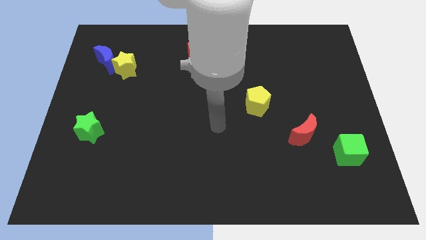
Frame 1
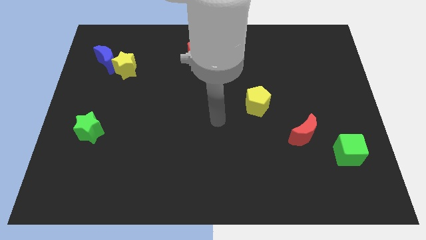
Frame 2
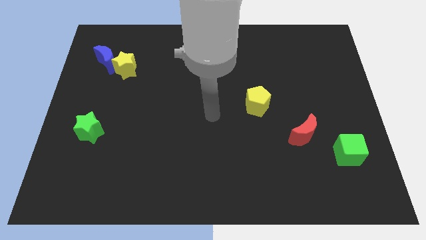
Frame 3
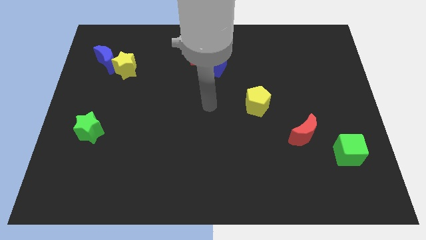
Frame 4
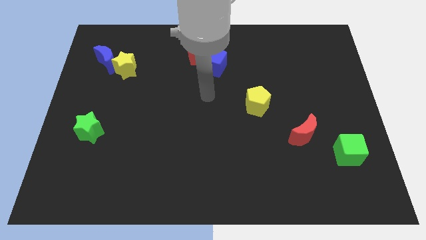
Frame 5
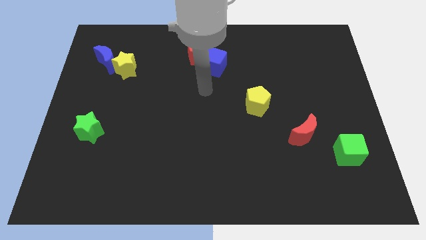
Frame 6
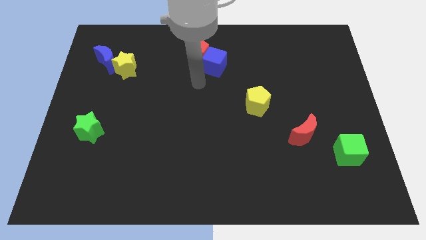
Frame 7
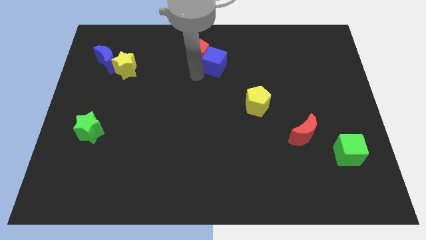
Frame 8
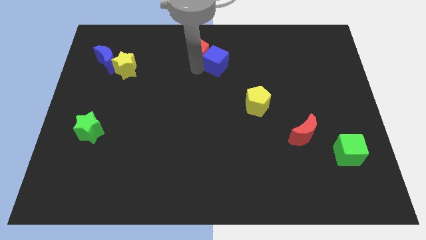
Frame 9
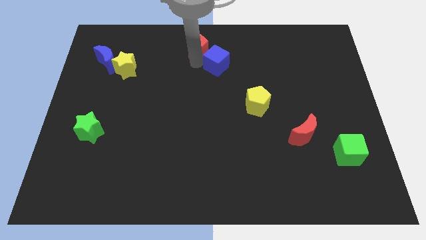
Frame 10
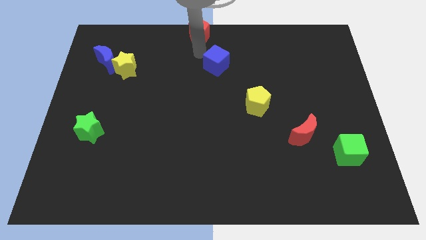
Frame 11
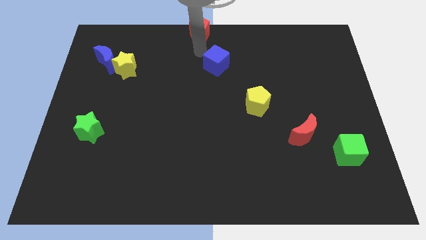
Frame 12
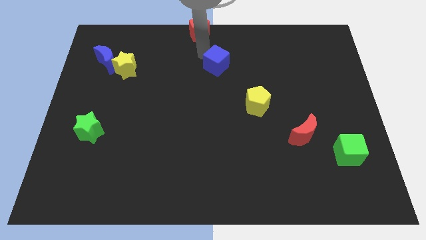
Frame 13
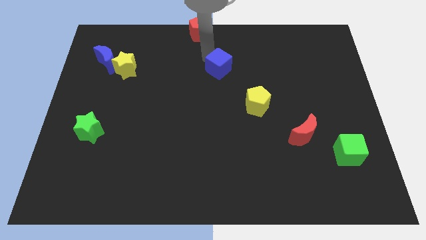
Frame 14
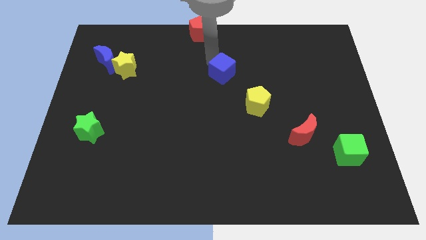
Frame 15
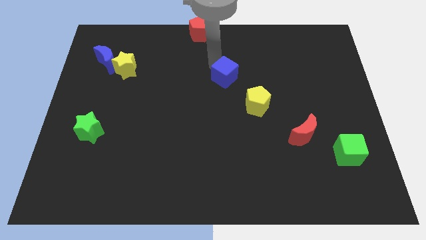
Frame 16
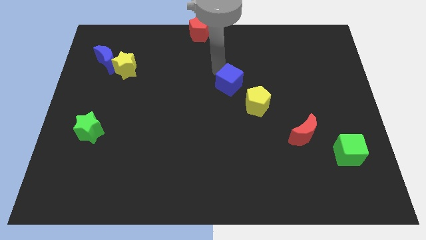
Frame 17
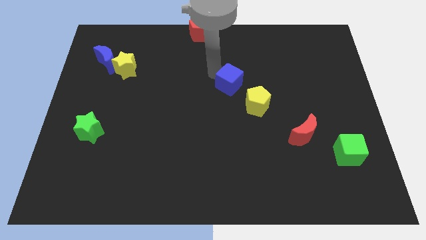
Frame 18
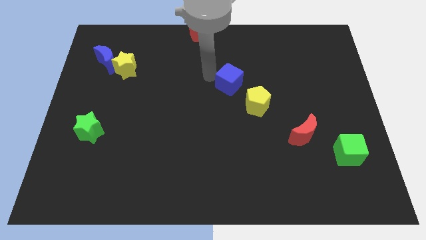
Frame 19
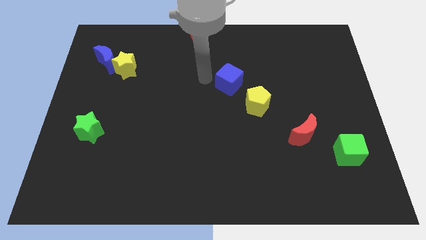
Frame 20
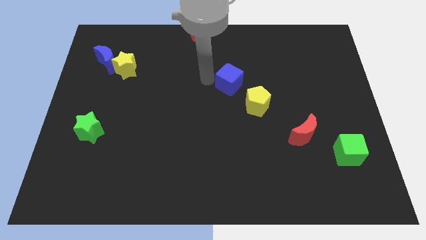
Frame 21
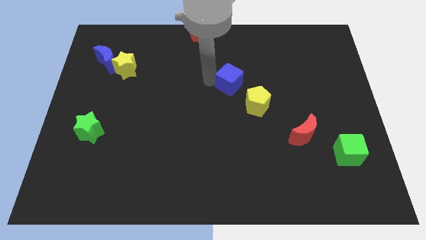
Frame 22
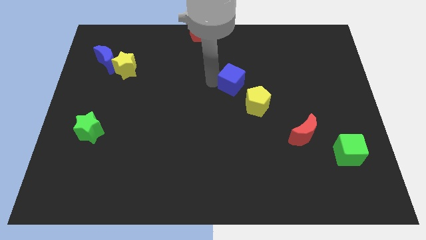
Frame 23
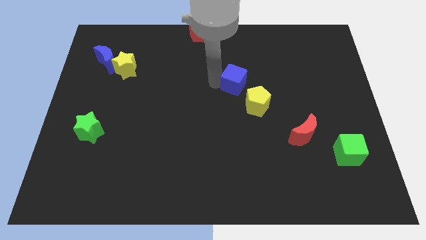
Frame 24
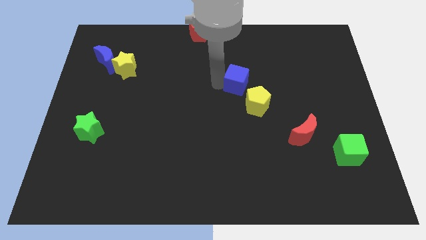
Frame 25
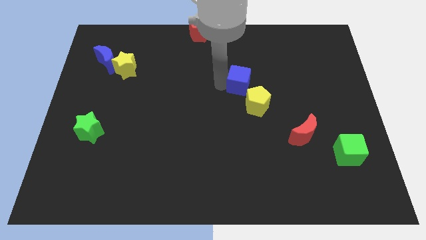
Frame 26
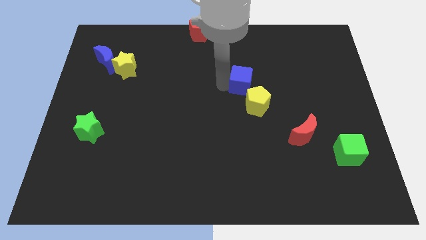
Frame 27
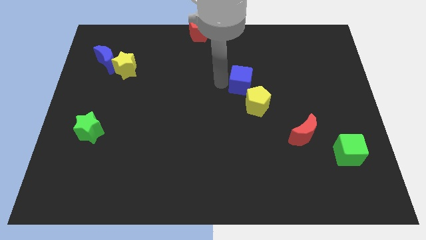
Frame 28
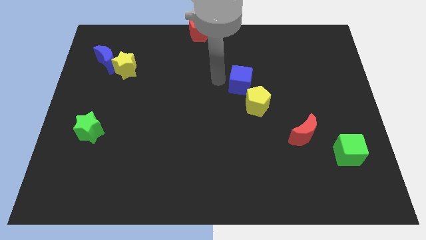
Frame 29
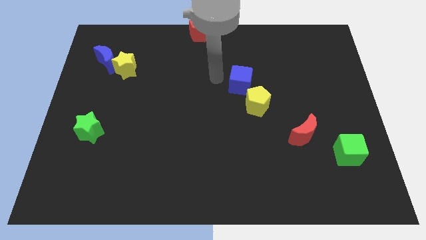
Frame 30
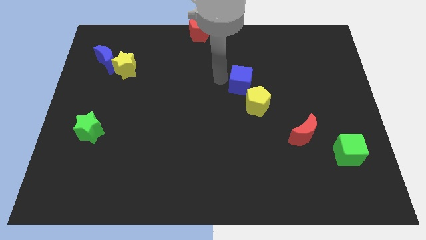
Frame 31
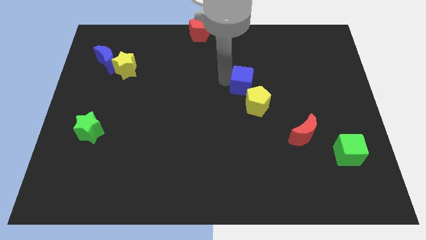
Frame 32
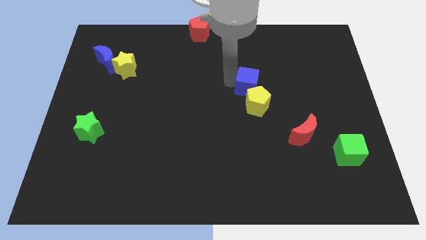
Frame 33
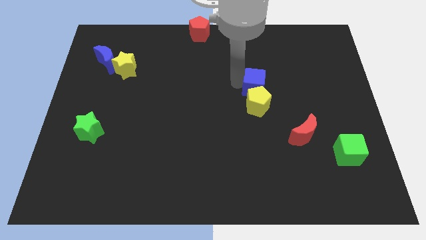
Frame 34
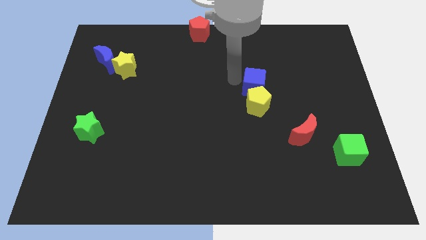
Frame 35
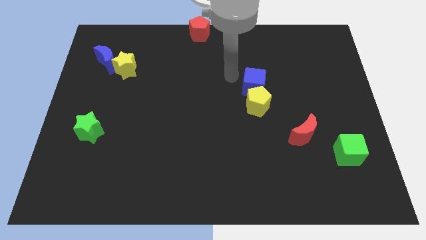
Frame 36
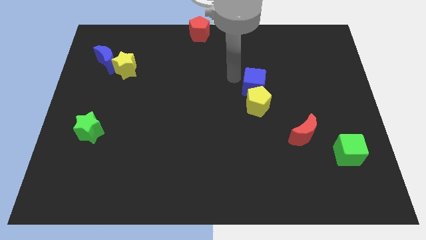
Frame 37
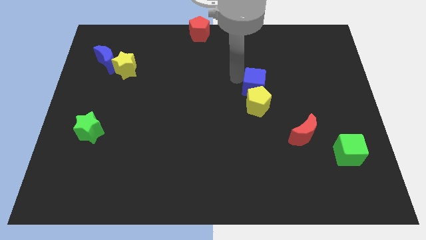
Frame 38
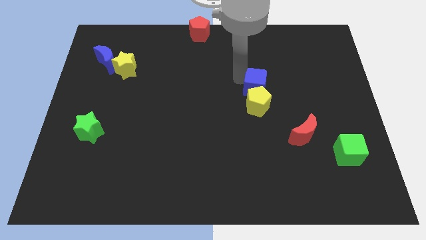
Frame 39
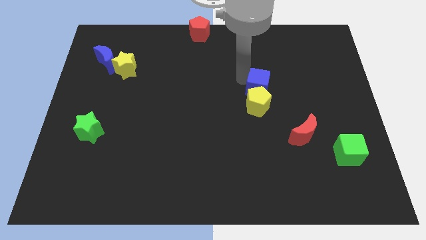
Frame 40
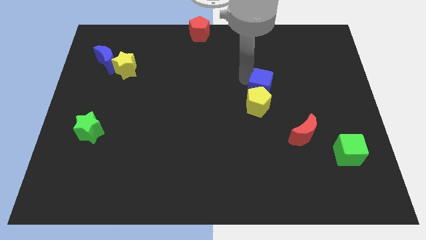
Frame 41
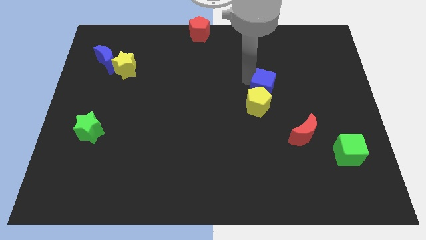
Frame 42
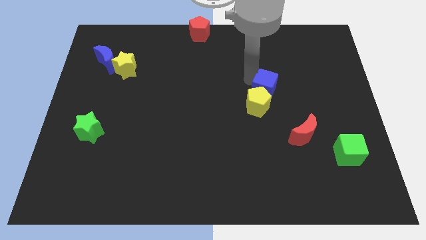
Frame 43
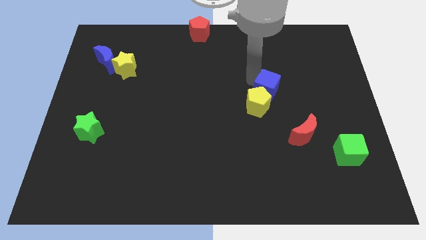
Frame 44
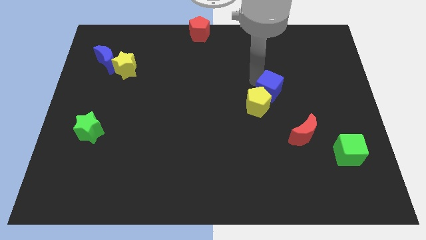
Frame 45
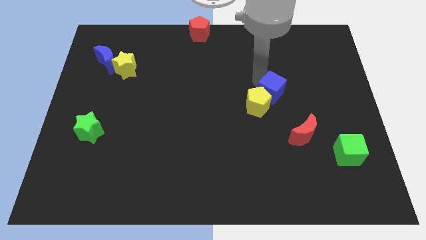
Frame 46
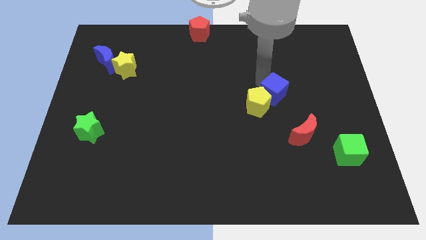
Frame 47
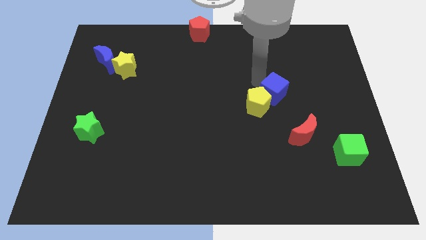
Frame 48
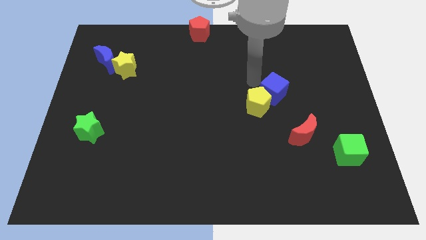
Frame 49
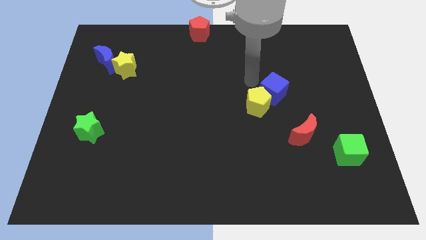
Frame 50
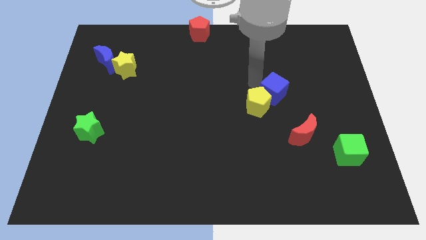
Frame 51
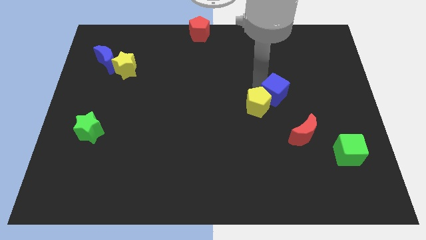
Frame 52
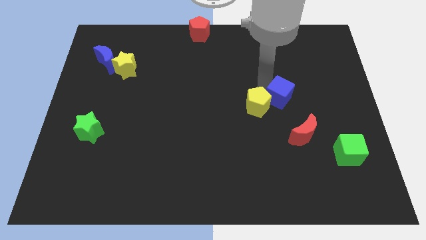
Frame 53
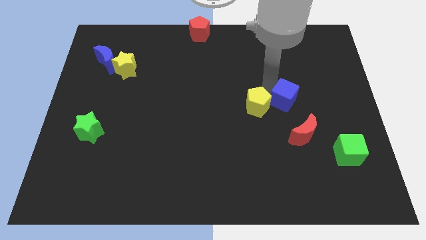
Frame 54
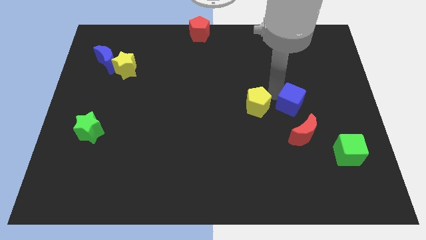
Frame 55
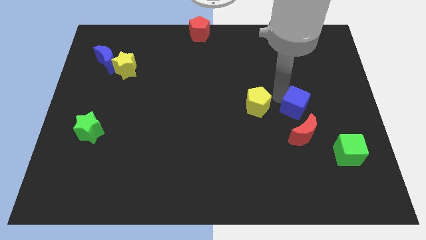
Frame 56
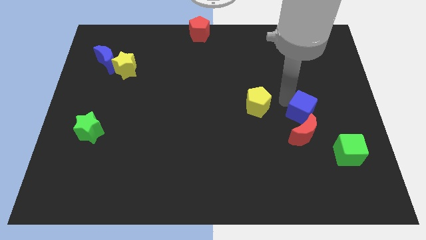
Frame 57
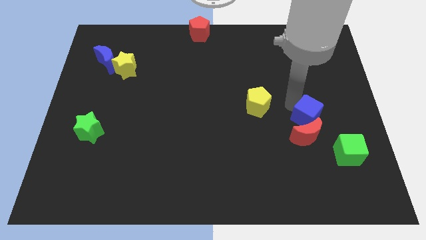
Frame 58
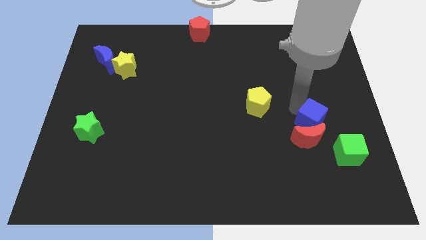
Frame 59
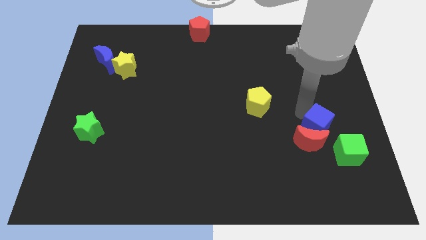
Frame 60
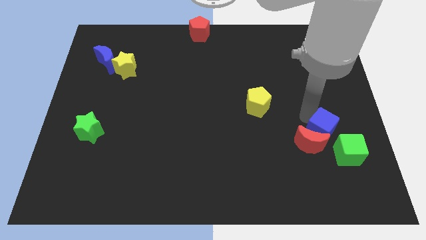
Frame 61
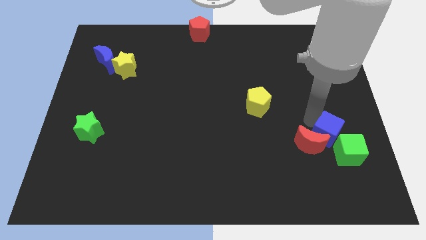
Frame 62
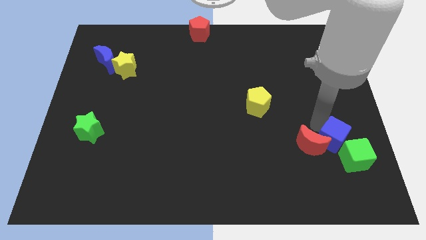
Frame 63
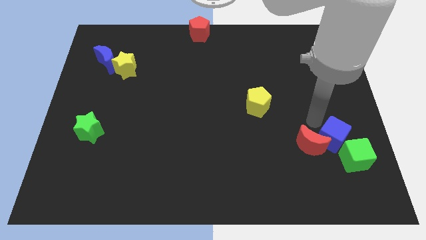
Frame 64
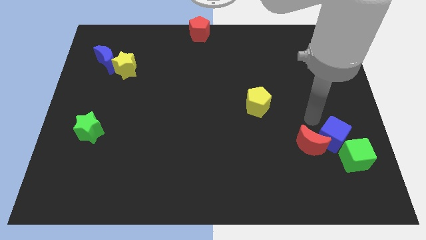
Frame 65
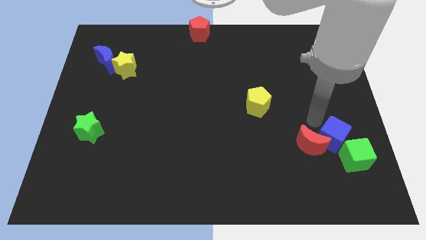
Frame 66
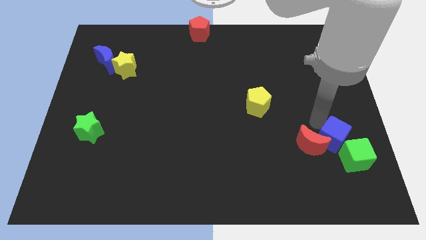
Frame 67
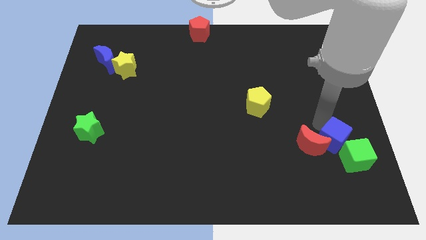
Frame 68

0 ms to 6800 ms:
move the blue cube to the green cube

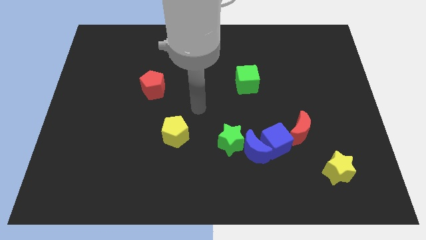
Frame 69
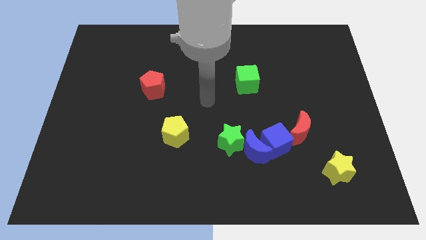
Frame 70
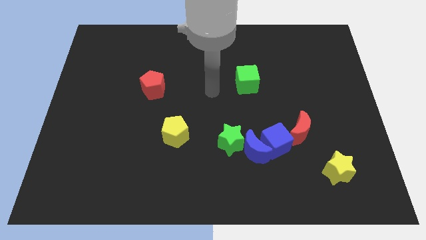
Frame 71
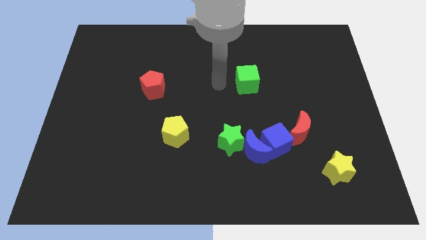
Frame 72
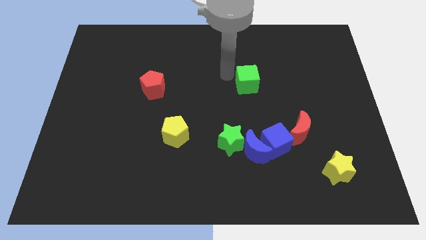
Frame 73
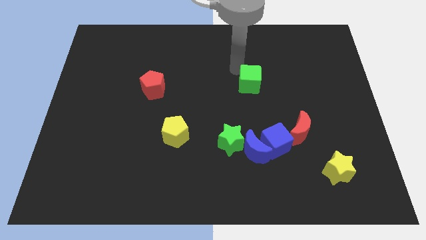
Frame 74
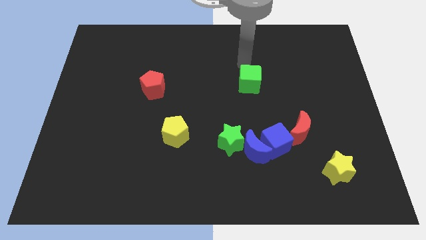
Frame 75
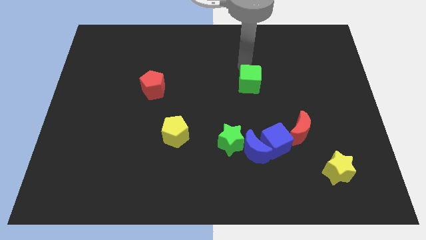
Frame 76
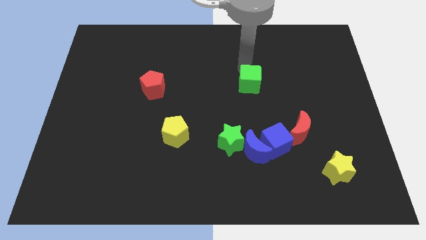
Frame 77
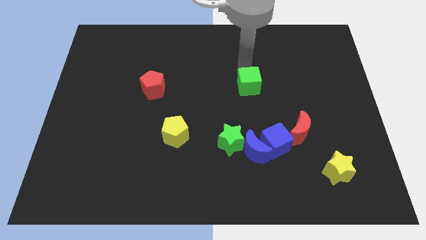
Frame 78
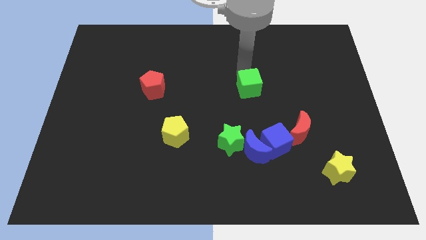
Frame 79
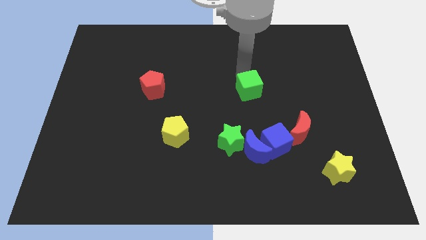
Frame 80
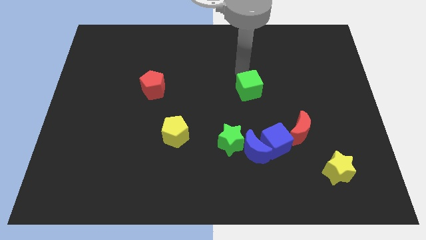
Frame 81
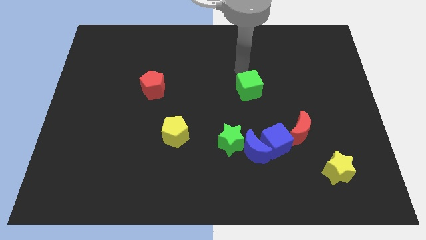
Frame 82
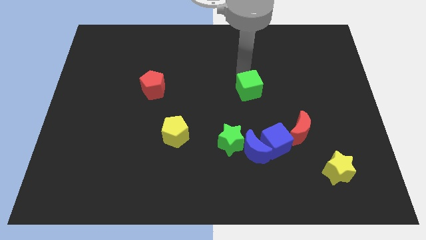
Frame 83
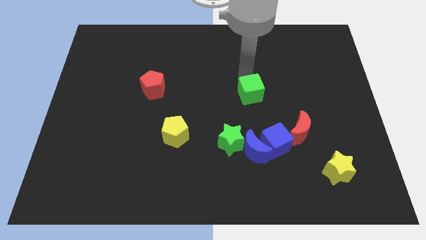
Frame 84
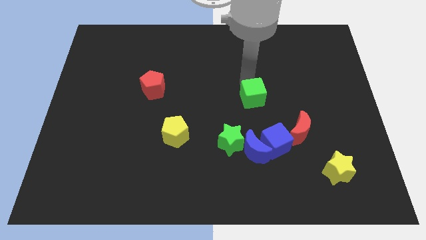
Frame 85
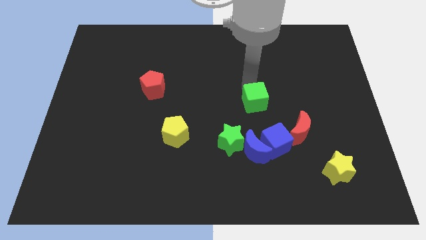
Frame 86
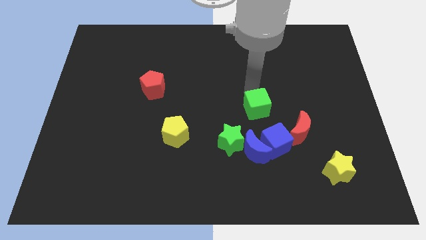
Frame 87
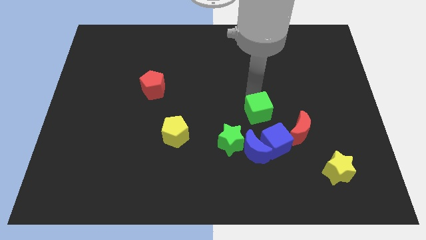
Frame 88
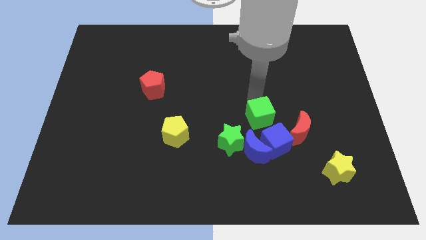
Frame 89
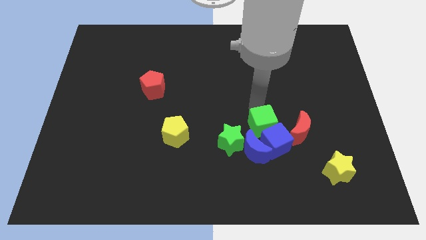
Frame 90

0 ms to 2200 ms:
push the green cube next to the blue cube
